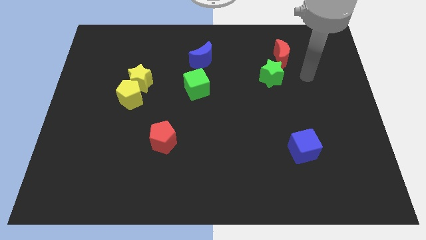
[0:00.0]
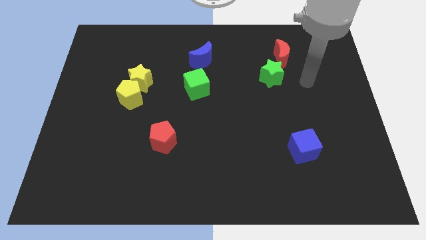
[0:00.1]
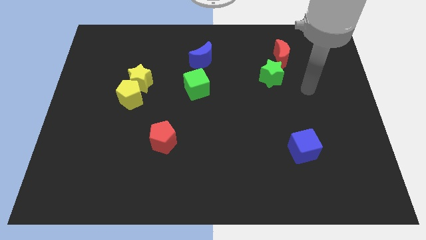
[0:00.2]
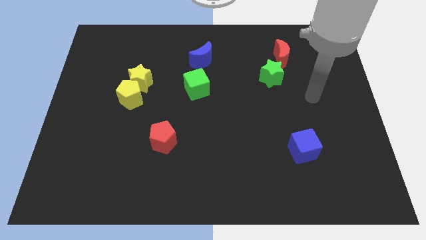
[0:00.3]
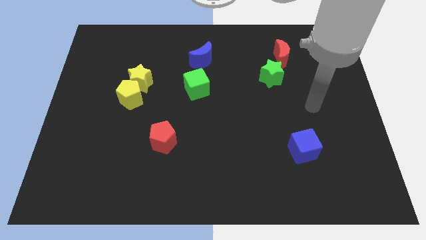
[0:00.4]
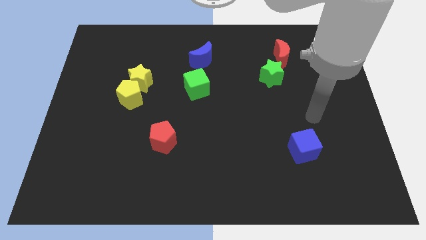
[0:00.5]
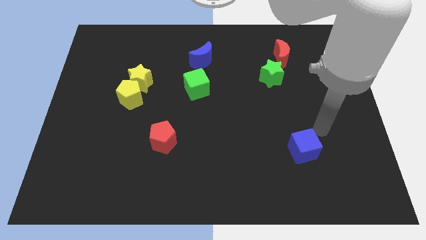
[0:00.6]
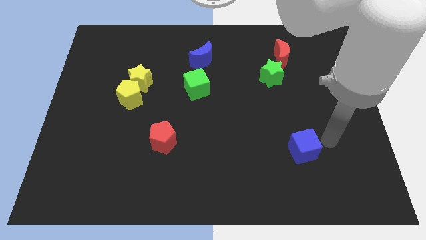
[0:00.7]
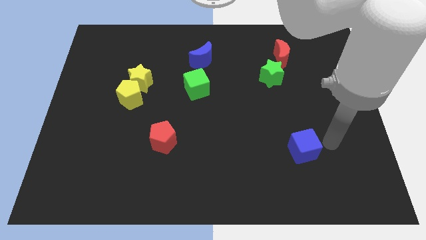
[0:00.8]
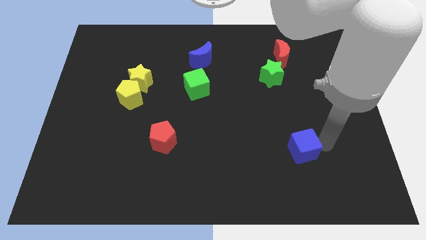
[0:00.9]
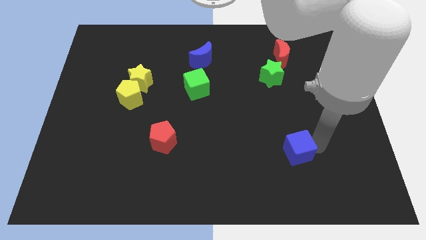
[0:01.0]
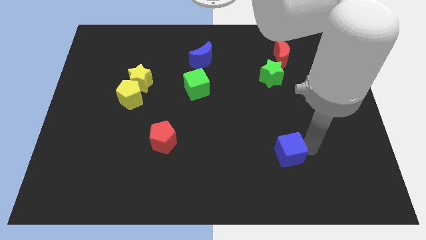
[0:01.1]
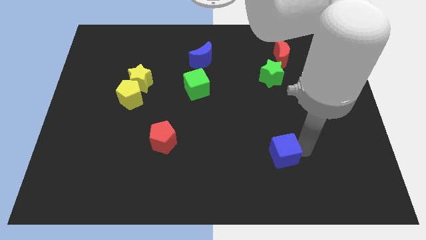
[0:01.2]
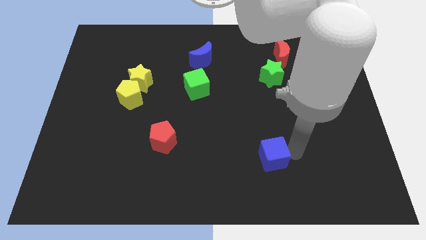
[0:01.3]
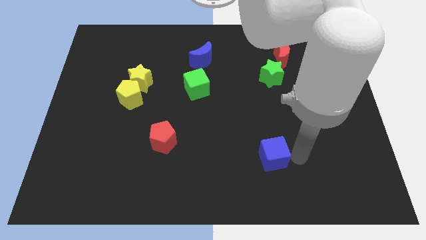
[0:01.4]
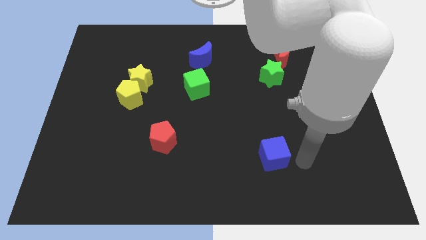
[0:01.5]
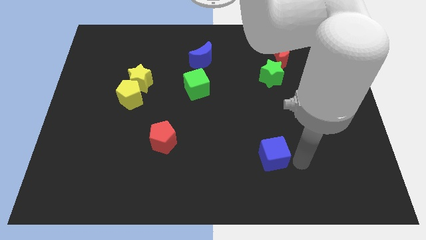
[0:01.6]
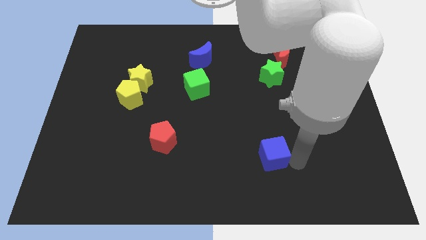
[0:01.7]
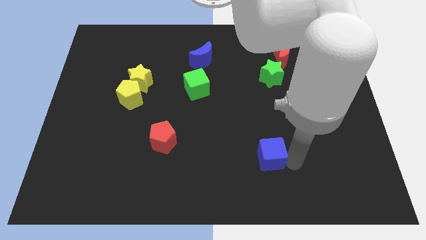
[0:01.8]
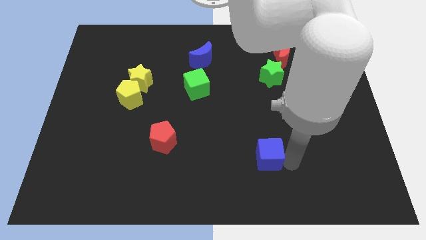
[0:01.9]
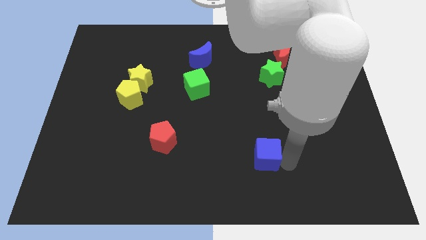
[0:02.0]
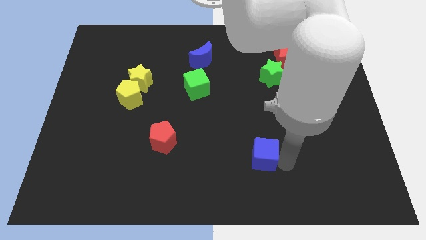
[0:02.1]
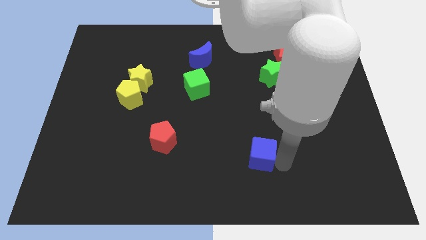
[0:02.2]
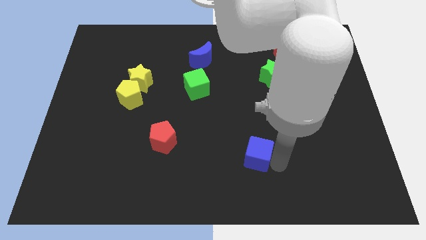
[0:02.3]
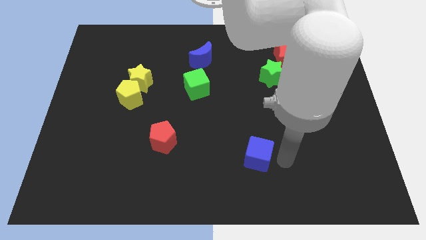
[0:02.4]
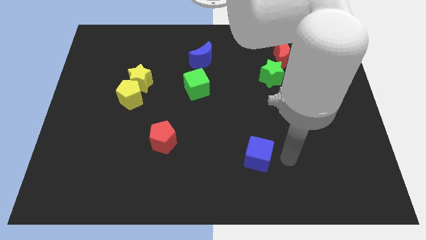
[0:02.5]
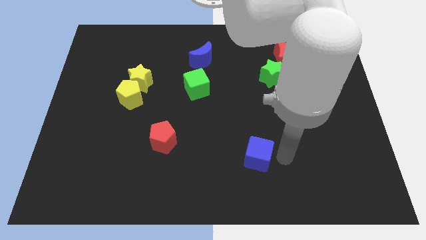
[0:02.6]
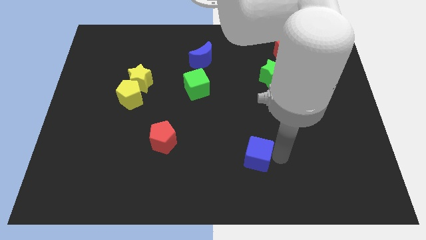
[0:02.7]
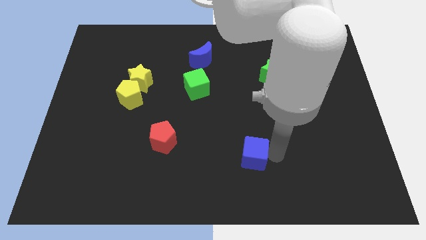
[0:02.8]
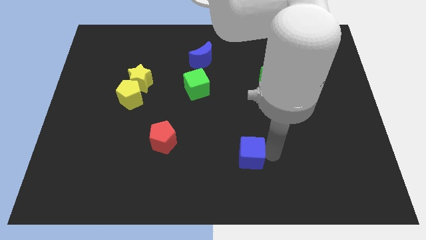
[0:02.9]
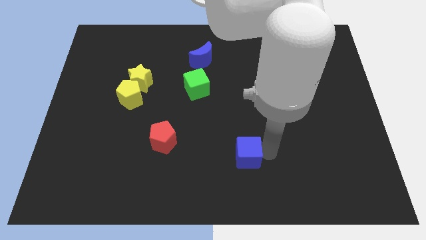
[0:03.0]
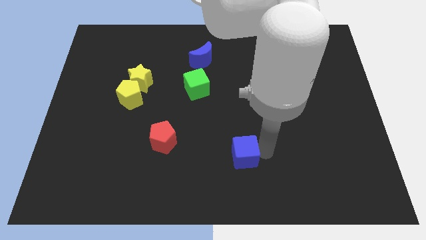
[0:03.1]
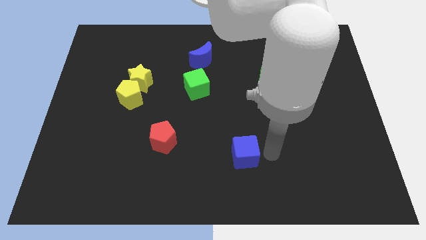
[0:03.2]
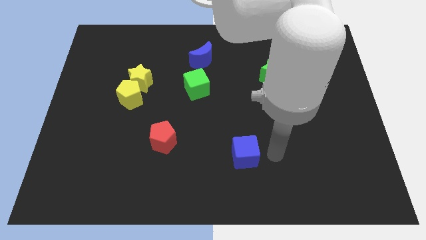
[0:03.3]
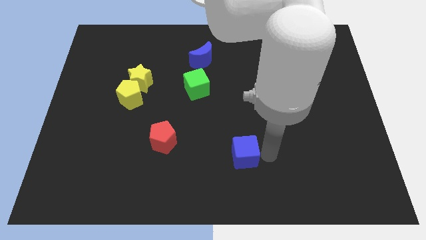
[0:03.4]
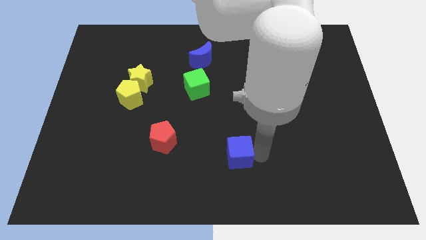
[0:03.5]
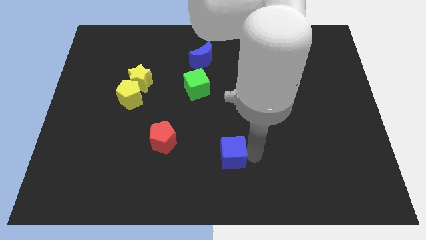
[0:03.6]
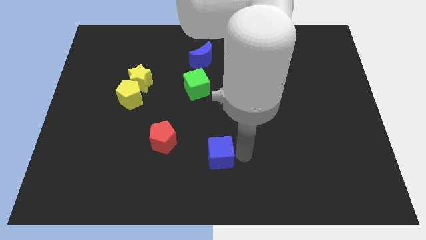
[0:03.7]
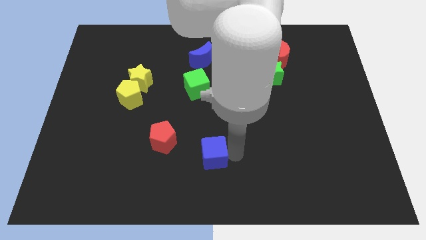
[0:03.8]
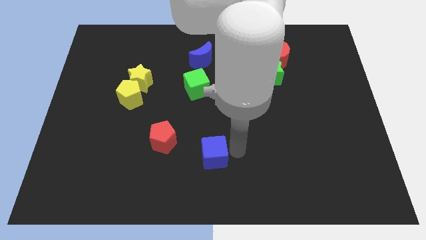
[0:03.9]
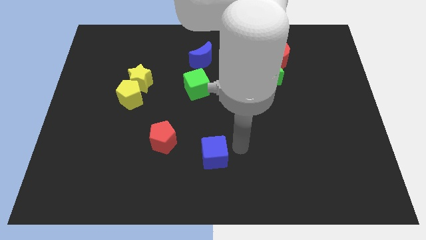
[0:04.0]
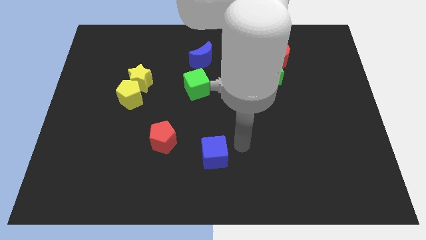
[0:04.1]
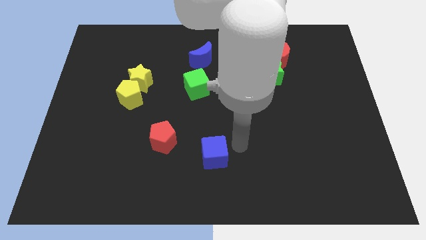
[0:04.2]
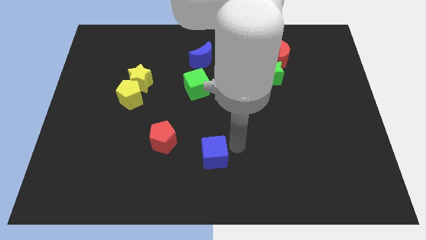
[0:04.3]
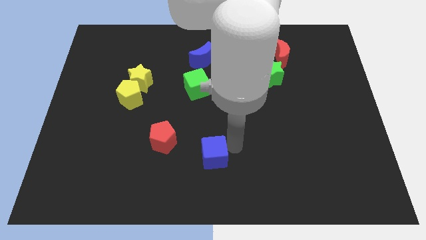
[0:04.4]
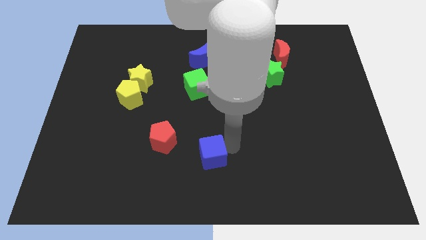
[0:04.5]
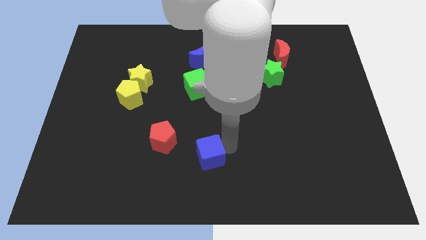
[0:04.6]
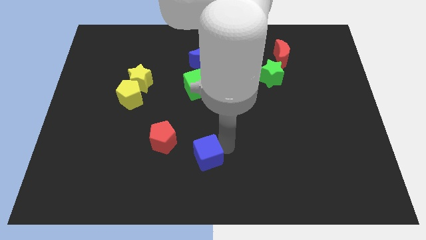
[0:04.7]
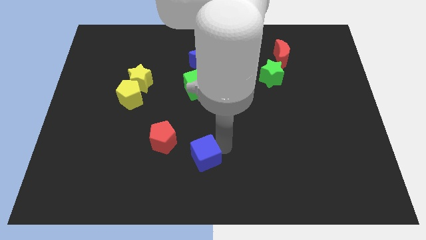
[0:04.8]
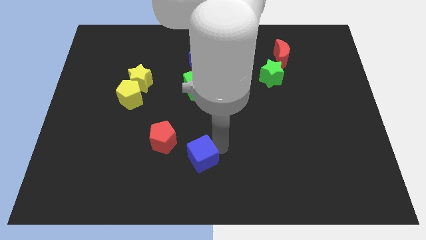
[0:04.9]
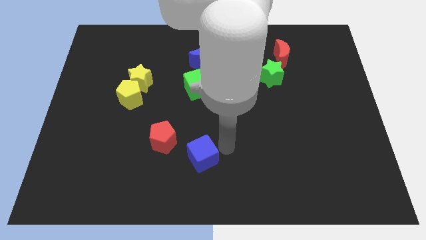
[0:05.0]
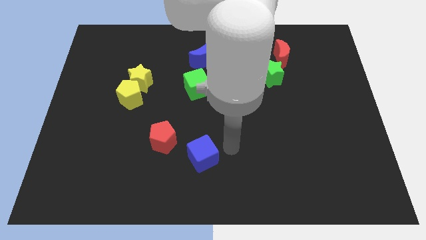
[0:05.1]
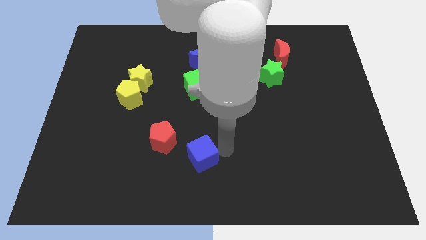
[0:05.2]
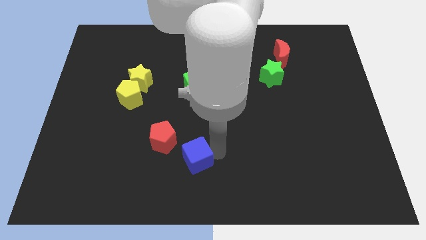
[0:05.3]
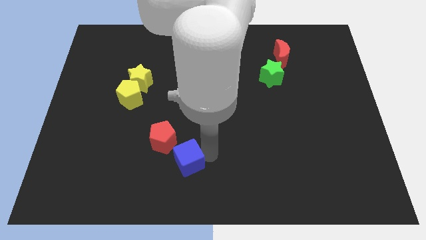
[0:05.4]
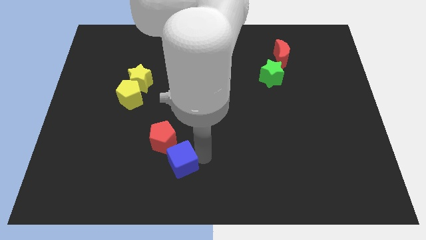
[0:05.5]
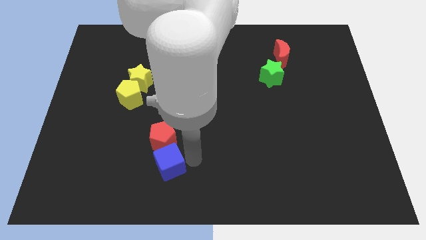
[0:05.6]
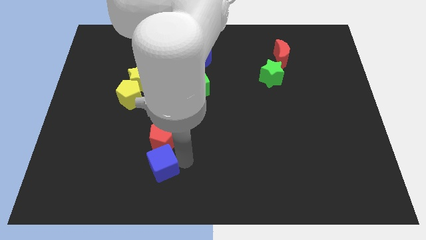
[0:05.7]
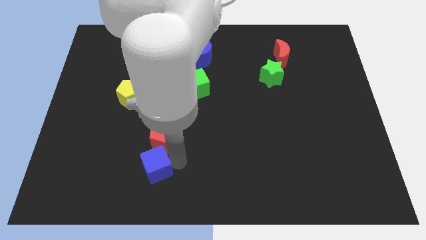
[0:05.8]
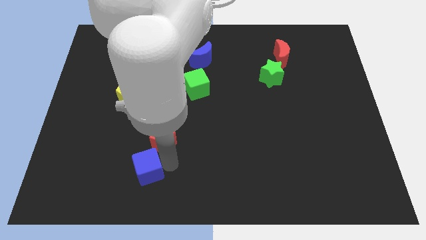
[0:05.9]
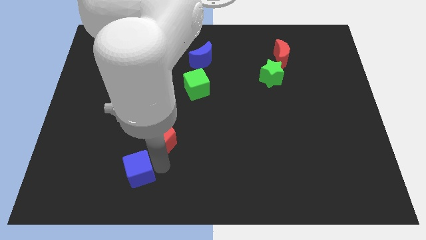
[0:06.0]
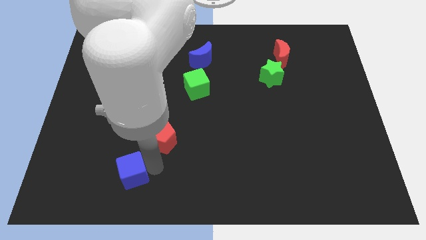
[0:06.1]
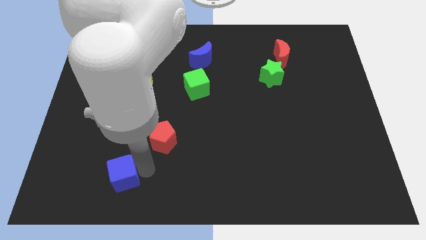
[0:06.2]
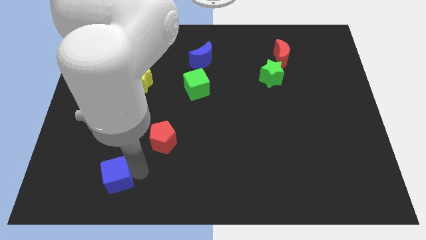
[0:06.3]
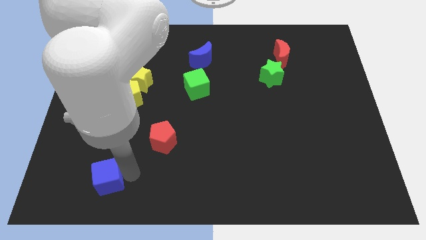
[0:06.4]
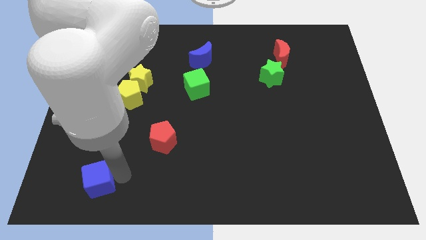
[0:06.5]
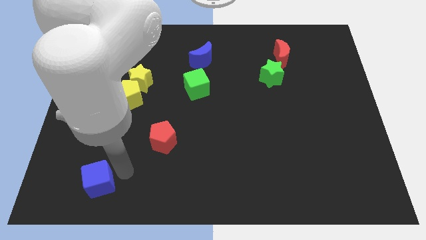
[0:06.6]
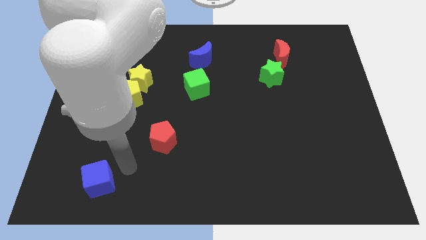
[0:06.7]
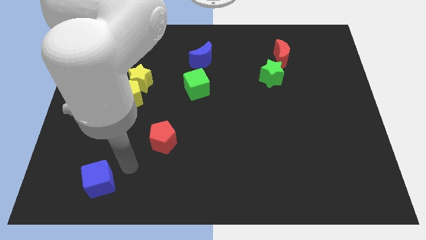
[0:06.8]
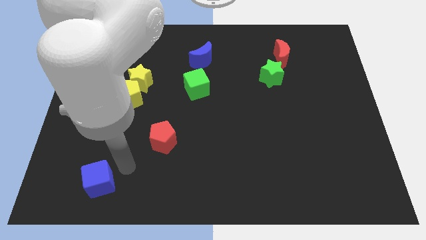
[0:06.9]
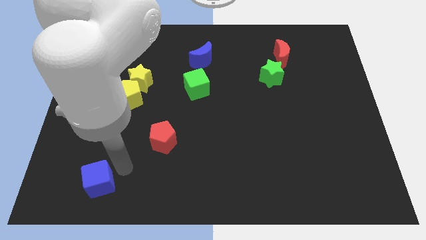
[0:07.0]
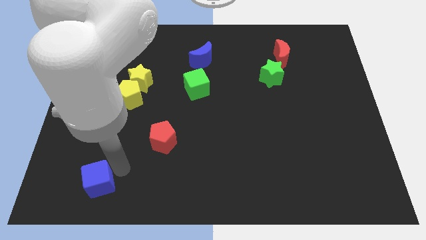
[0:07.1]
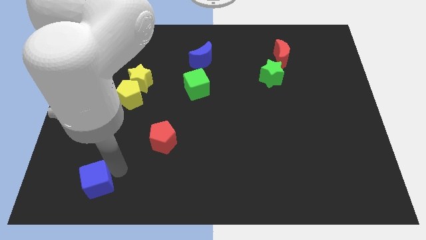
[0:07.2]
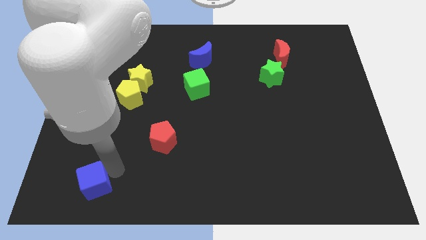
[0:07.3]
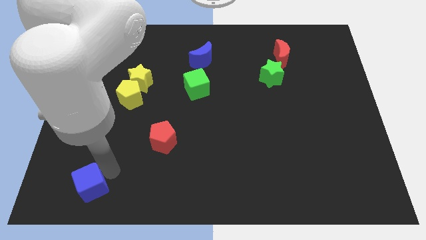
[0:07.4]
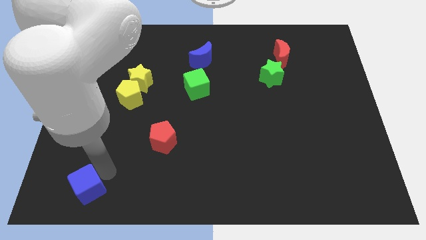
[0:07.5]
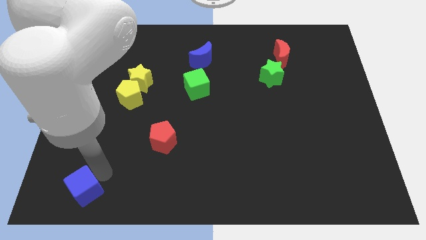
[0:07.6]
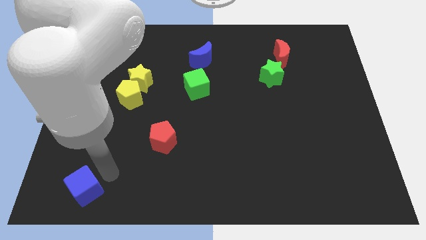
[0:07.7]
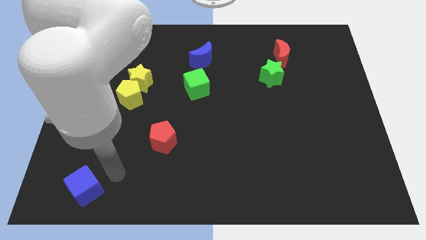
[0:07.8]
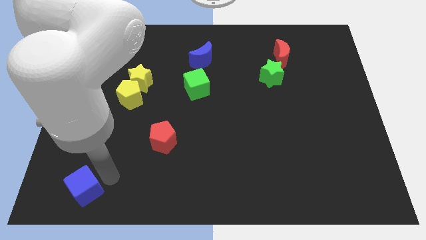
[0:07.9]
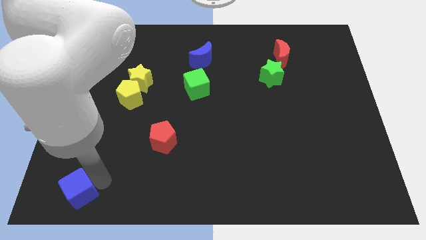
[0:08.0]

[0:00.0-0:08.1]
slide the blue cube to the bottom left
